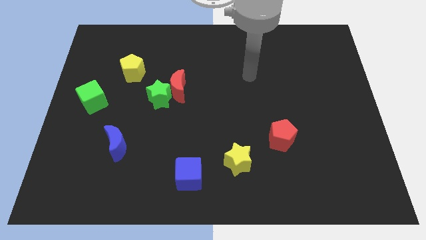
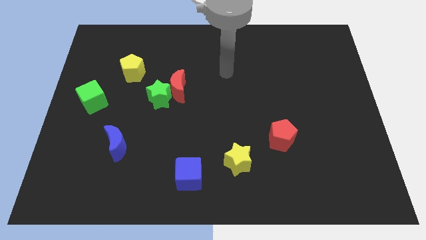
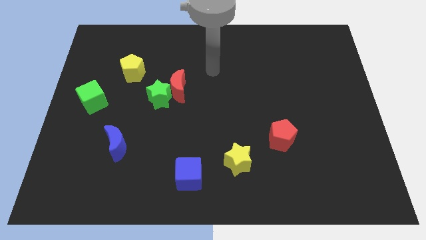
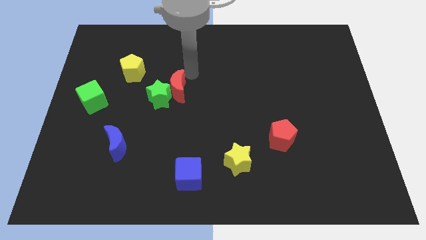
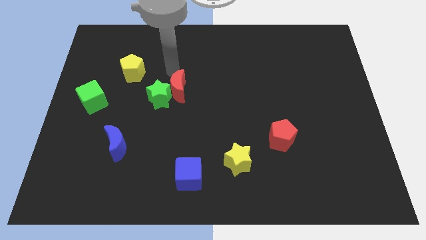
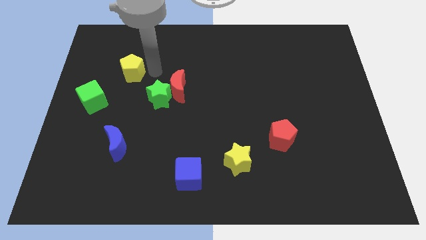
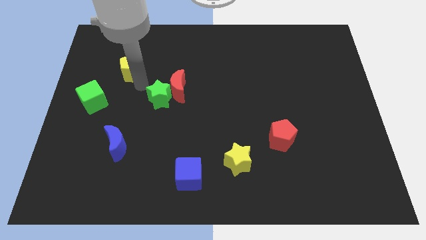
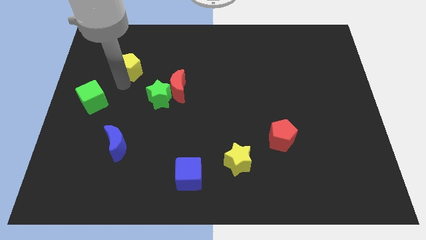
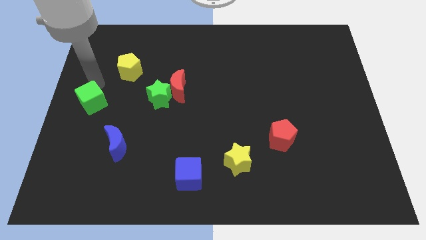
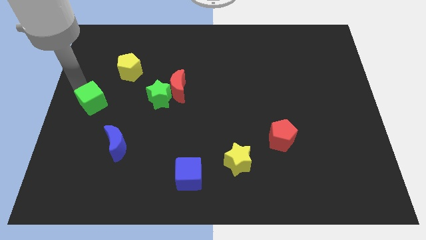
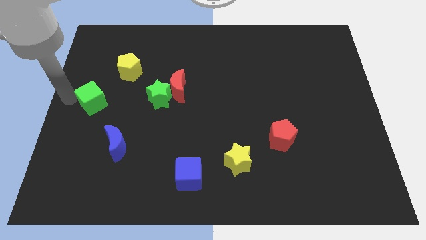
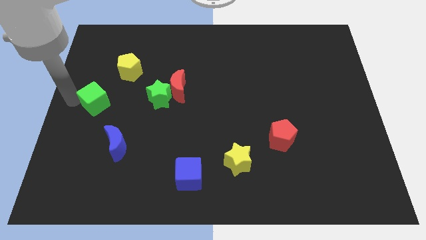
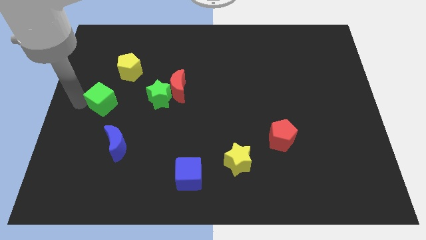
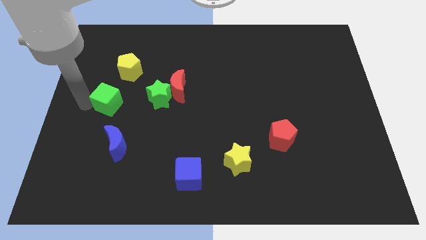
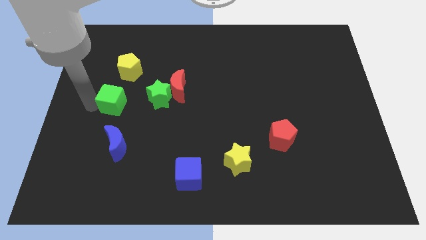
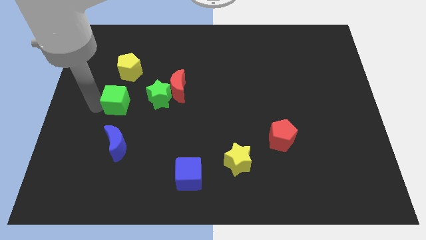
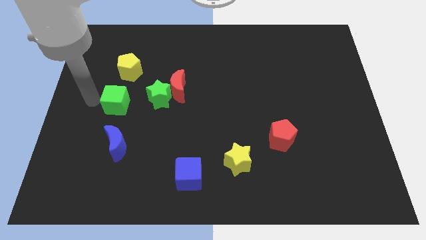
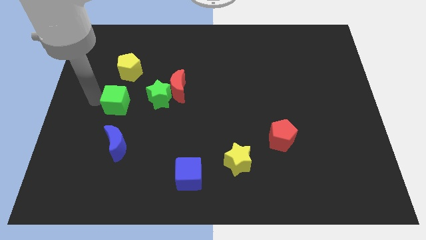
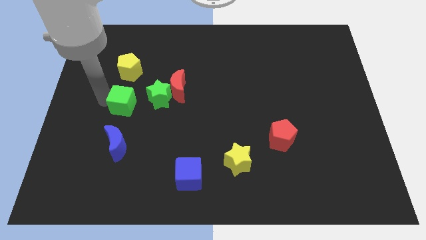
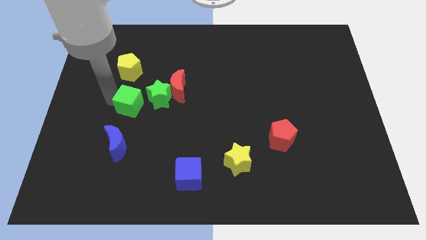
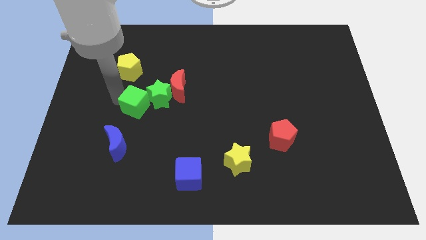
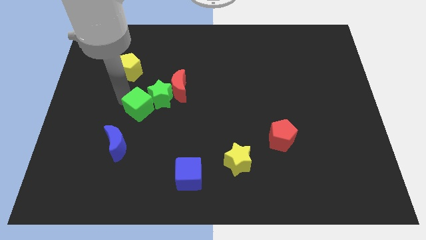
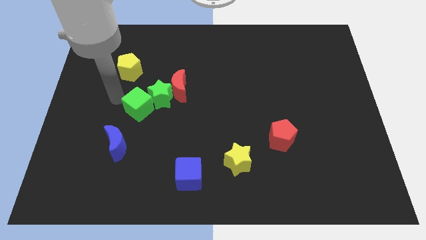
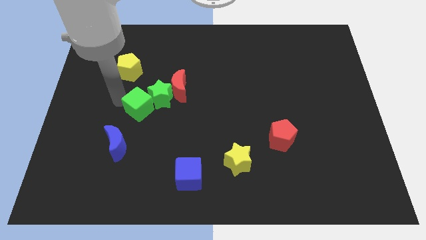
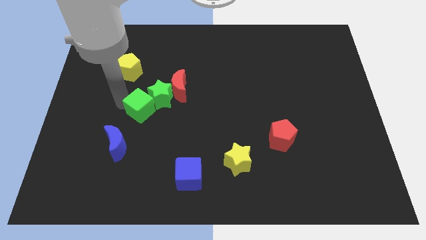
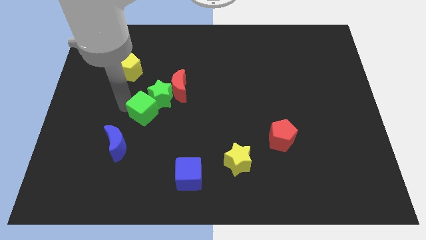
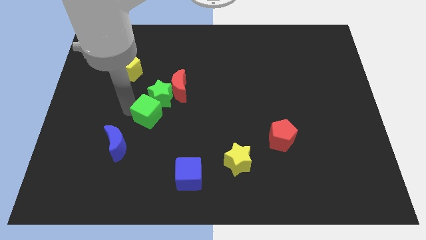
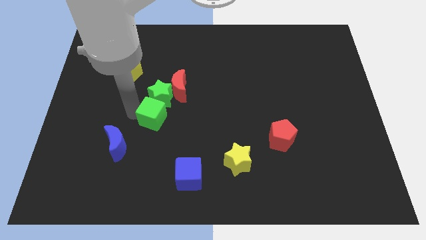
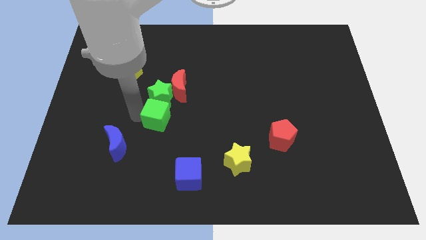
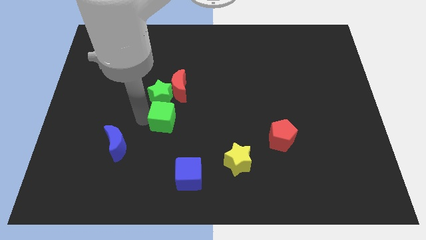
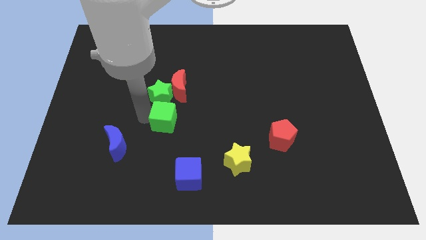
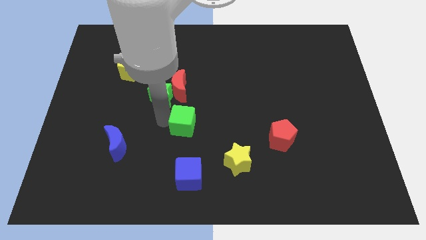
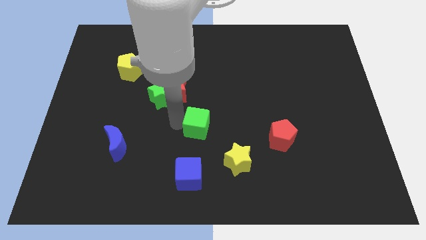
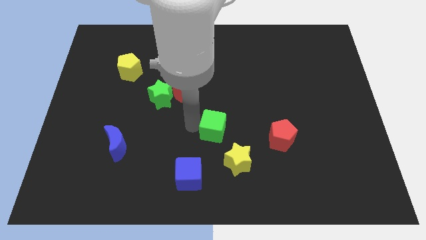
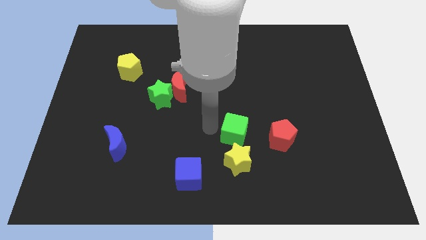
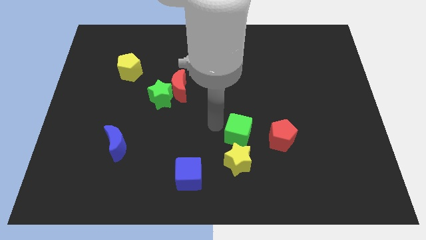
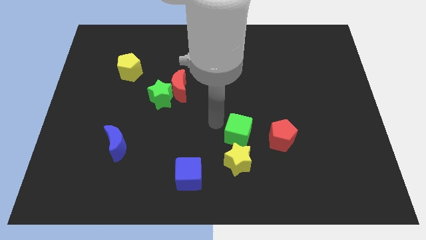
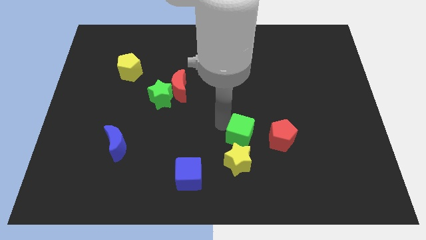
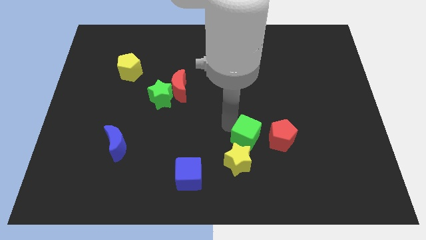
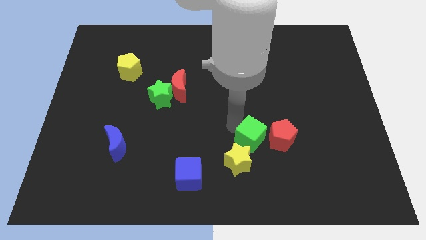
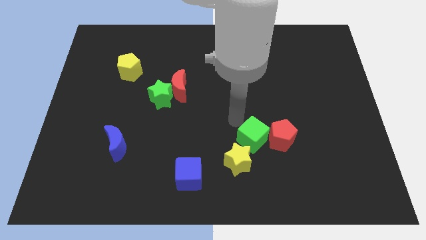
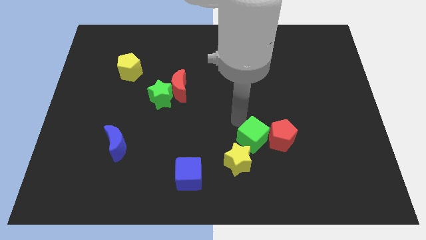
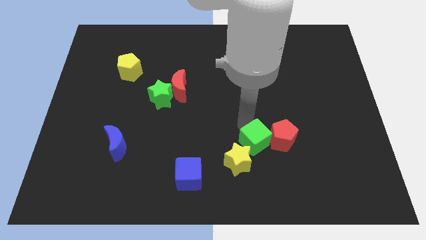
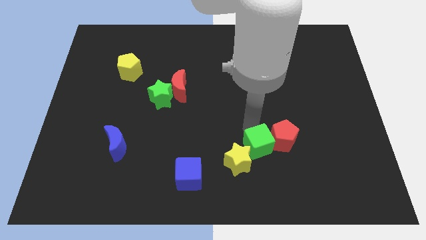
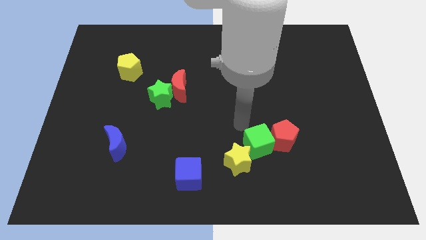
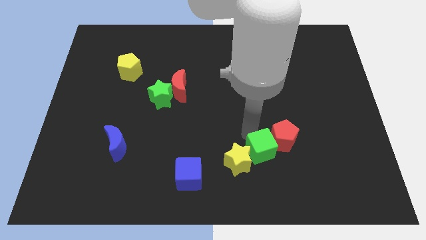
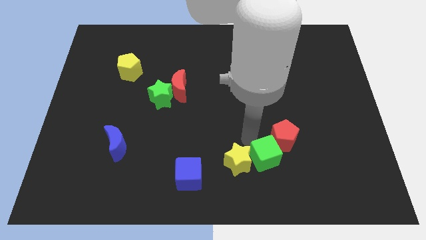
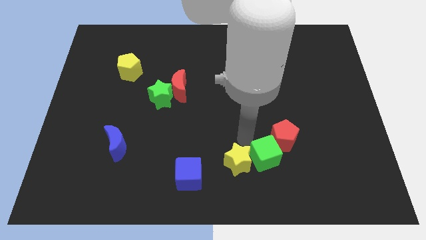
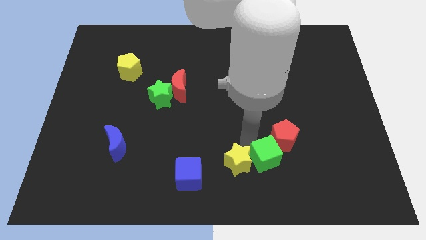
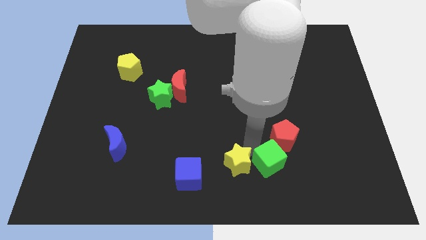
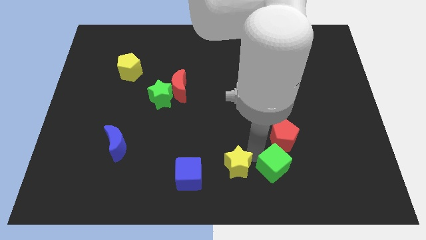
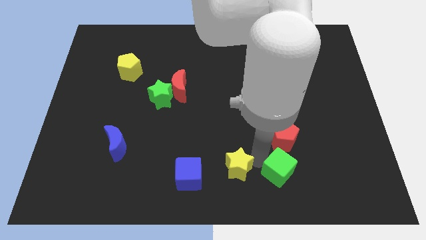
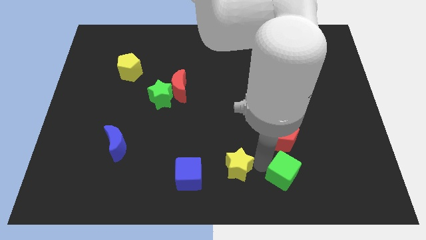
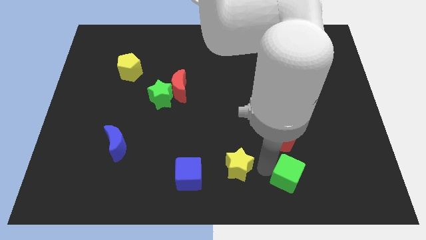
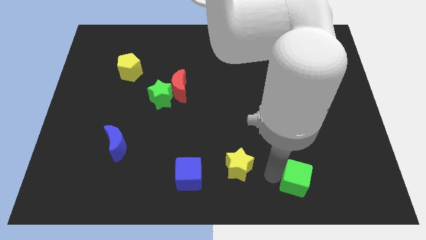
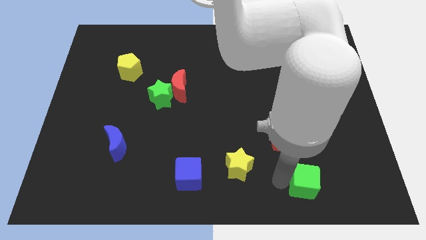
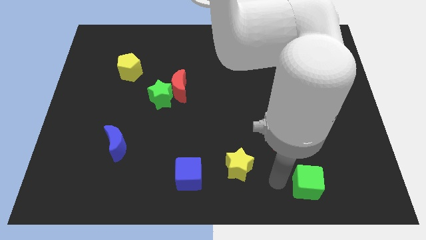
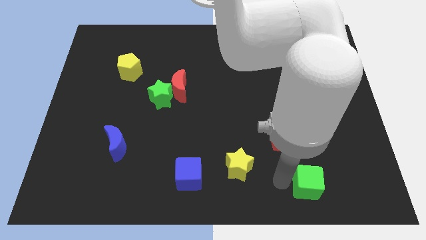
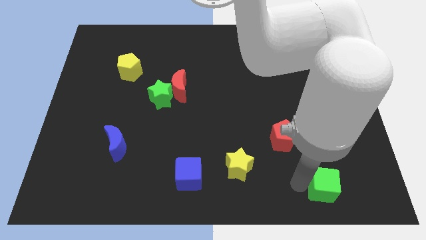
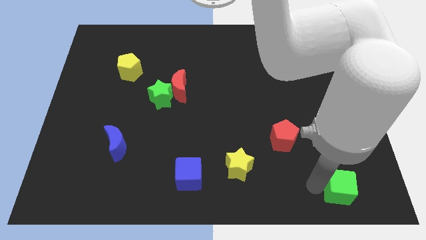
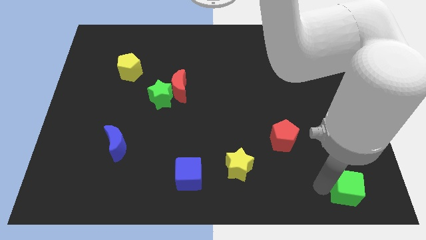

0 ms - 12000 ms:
slide the green cube to the lower right corner

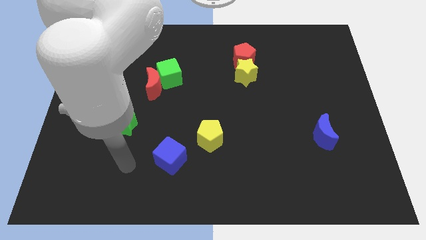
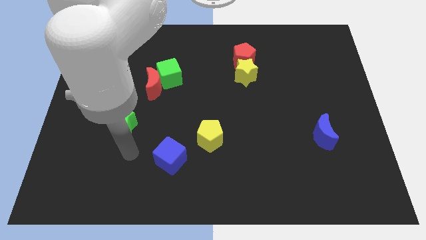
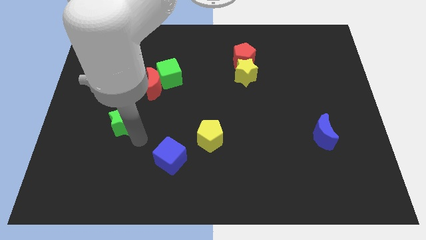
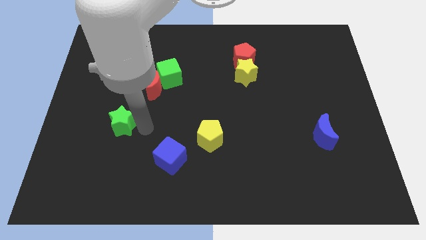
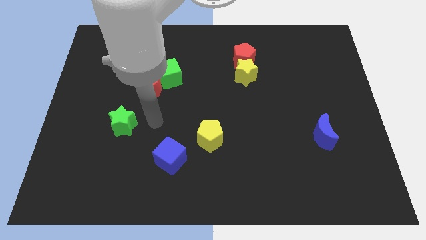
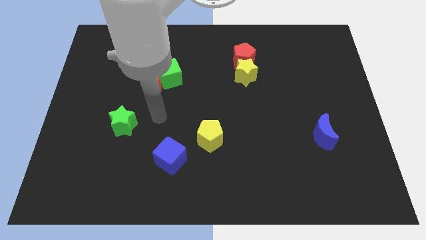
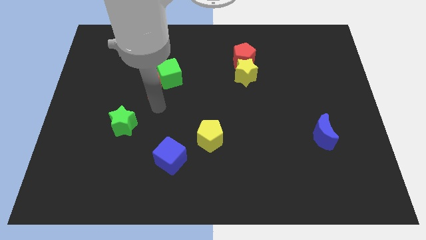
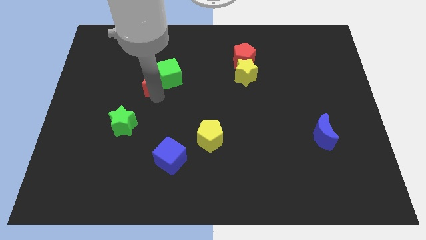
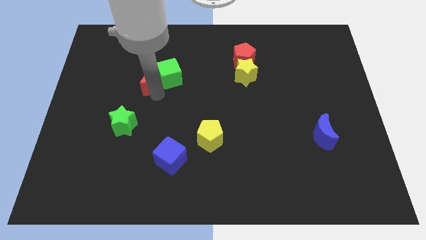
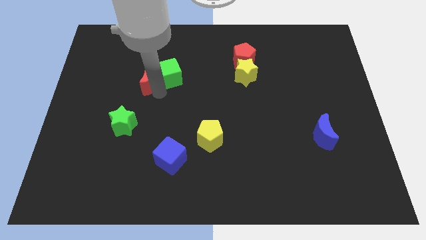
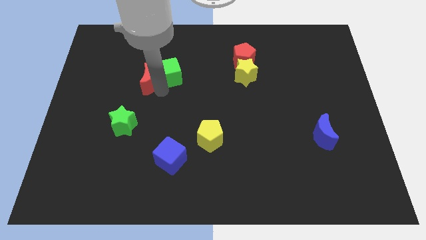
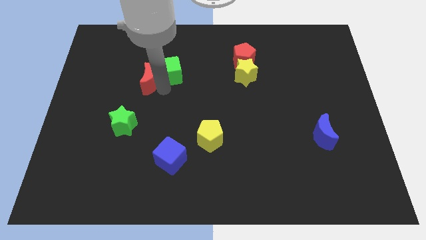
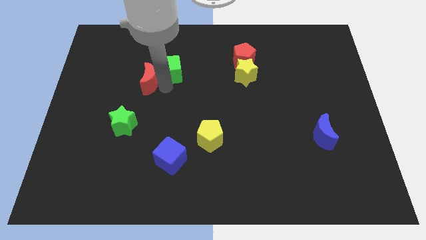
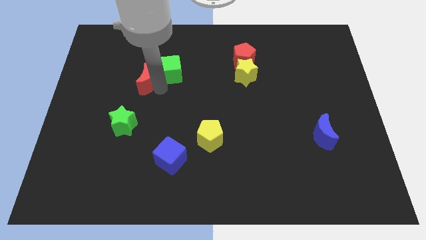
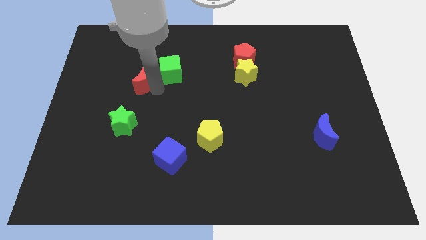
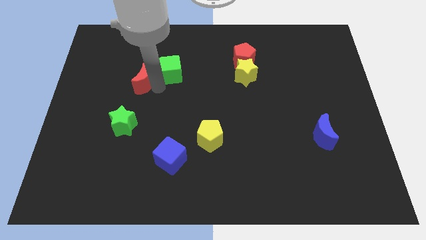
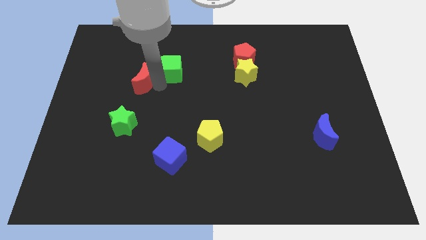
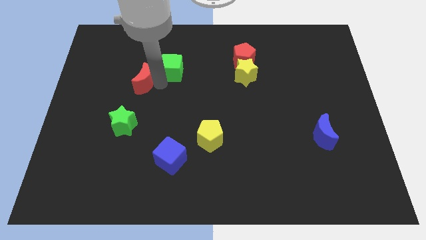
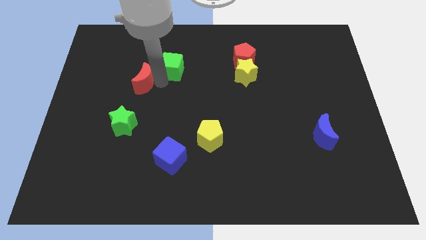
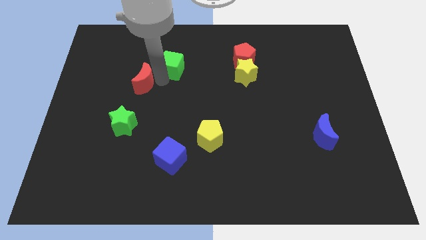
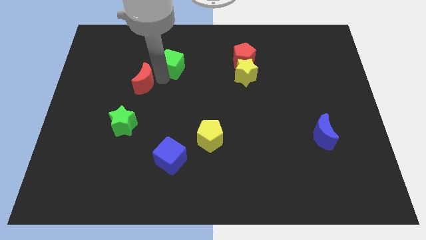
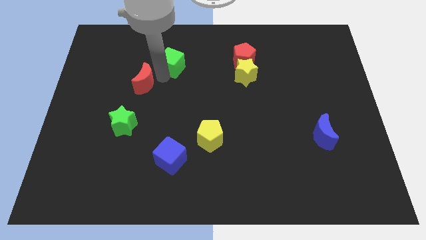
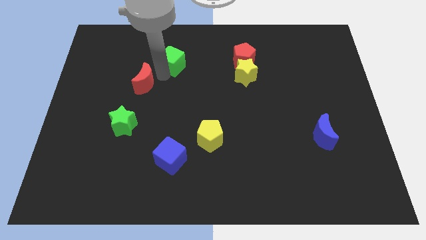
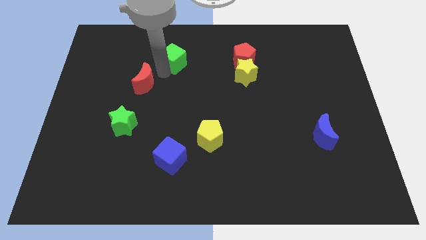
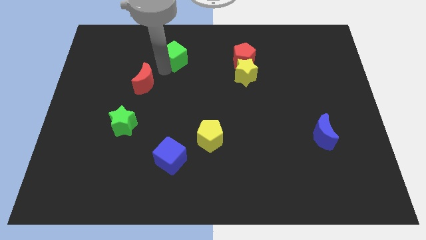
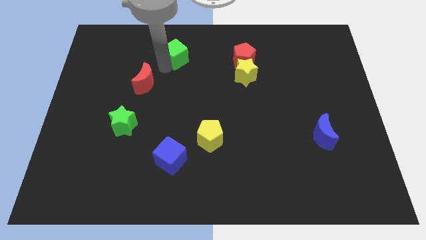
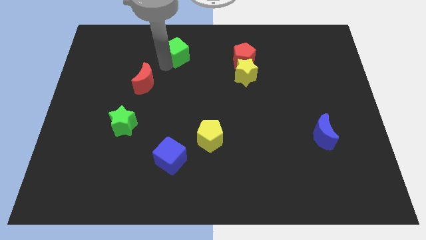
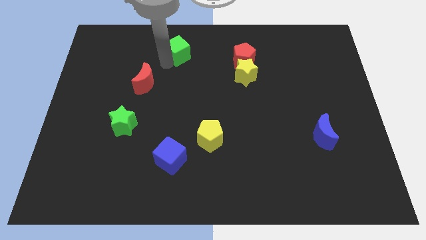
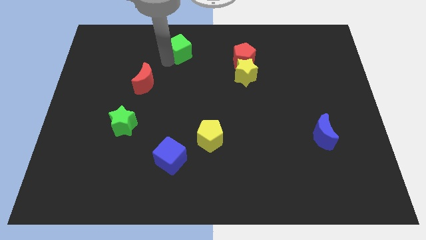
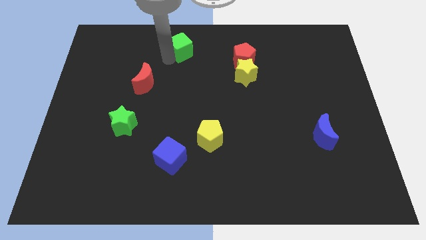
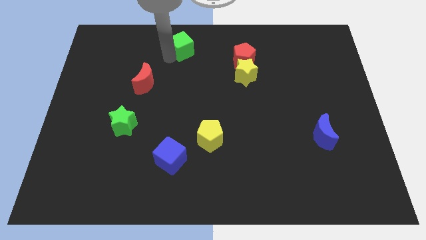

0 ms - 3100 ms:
push the green cube to the top side
